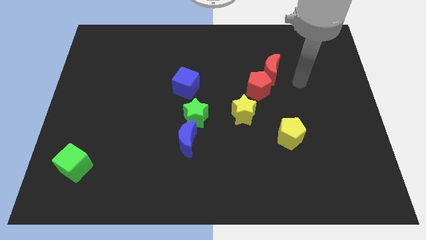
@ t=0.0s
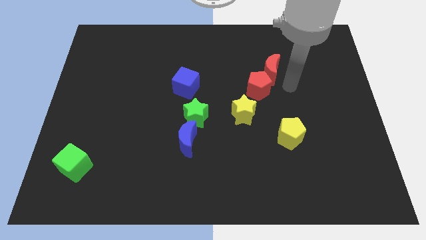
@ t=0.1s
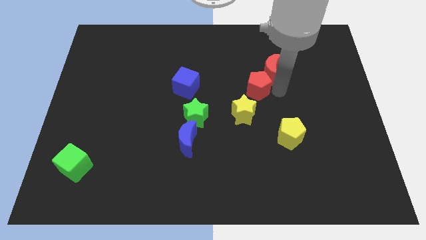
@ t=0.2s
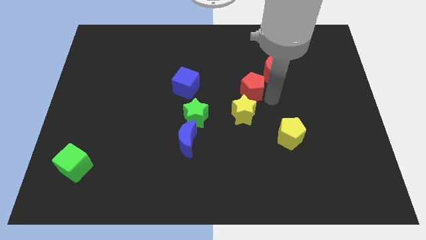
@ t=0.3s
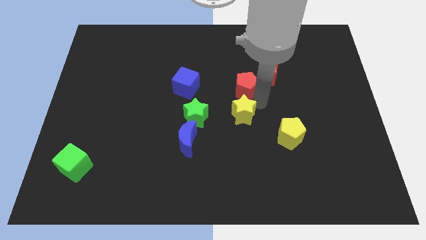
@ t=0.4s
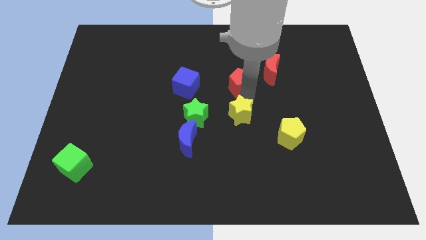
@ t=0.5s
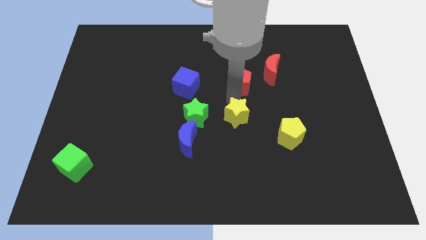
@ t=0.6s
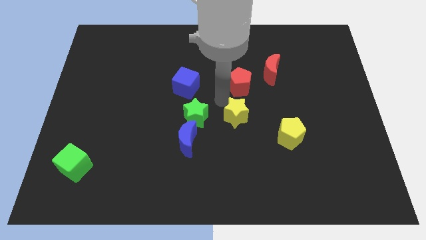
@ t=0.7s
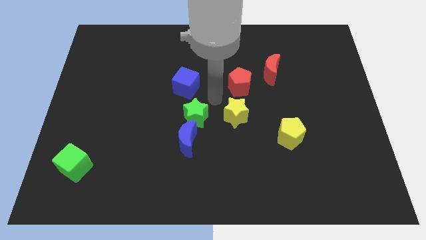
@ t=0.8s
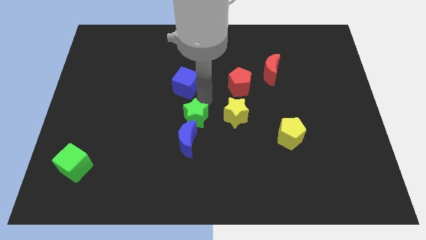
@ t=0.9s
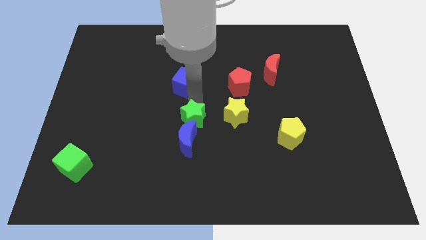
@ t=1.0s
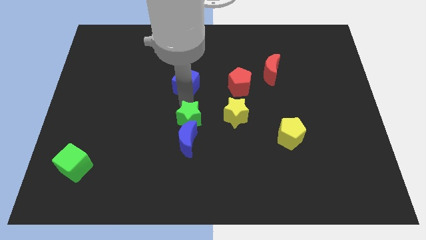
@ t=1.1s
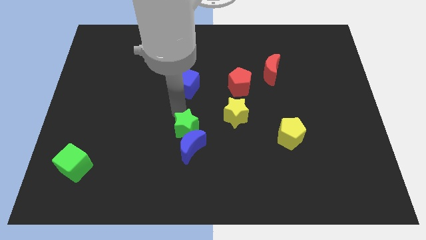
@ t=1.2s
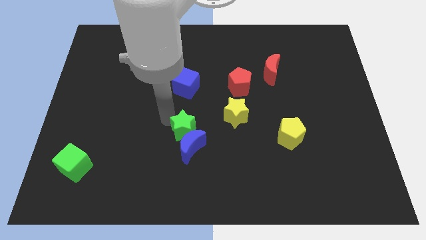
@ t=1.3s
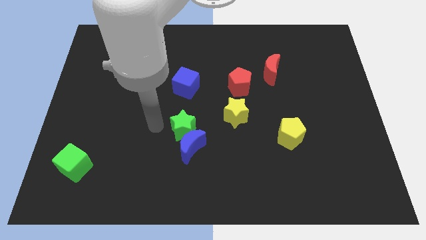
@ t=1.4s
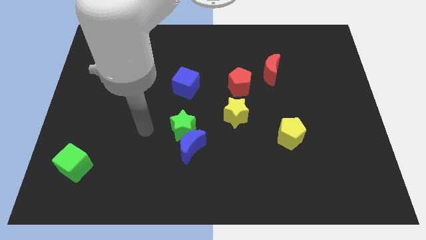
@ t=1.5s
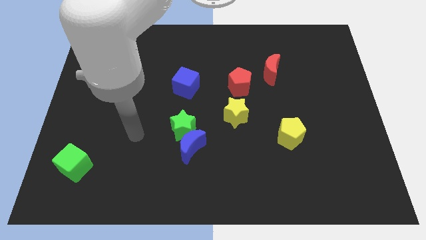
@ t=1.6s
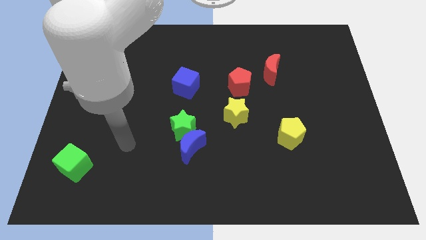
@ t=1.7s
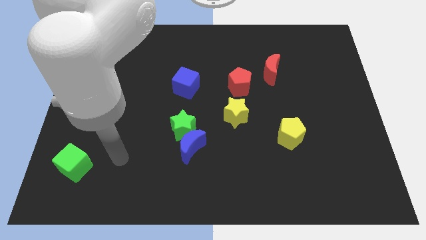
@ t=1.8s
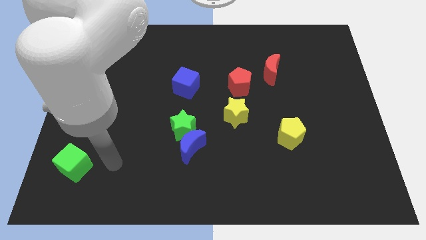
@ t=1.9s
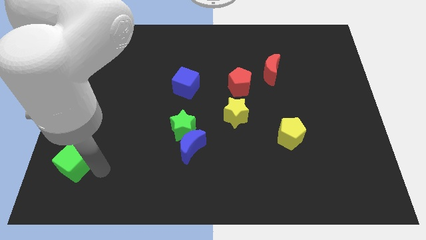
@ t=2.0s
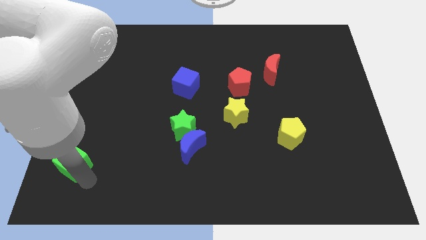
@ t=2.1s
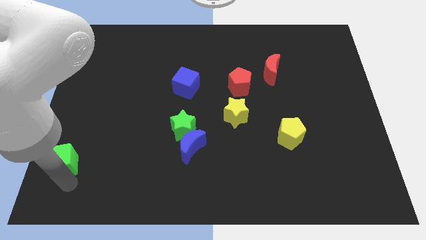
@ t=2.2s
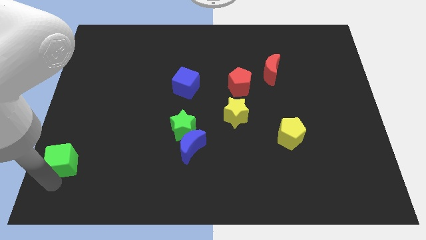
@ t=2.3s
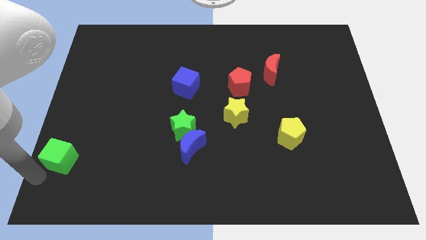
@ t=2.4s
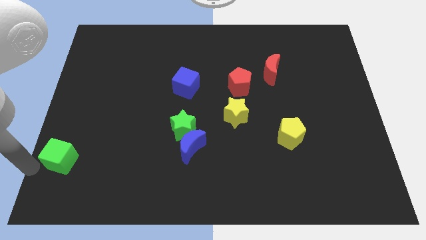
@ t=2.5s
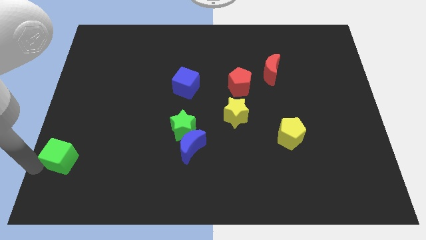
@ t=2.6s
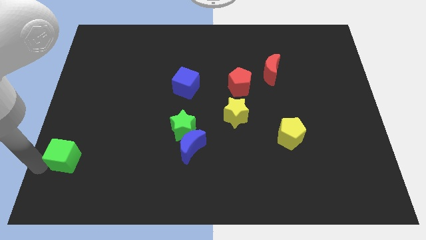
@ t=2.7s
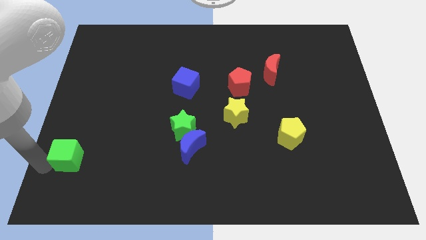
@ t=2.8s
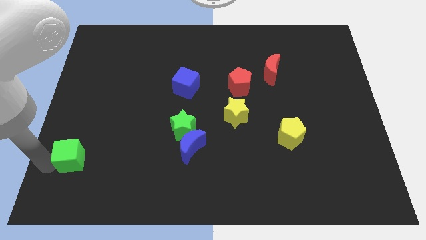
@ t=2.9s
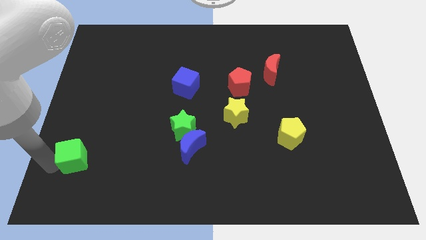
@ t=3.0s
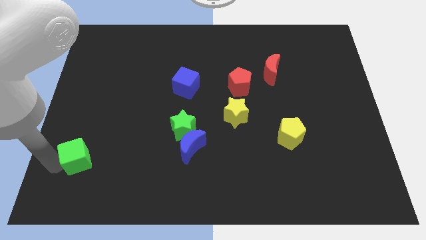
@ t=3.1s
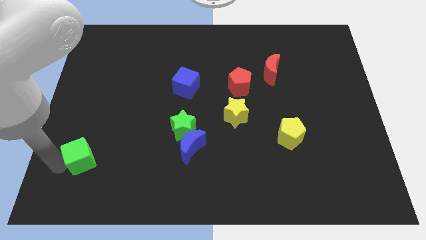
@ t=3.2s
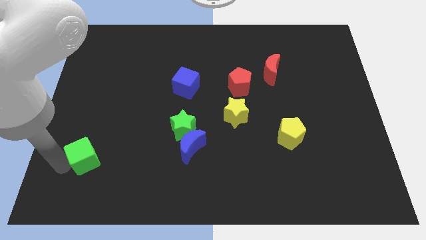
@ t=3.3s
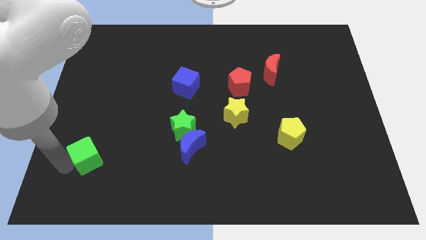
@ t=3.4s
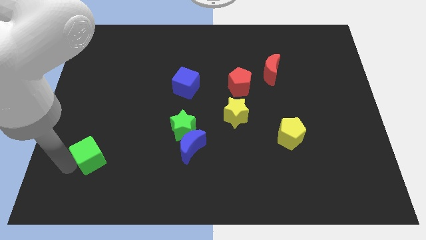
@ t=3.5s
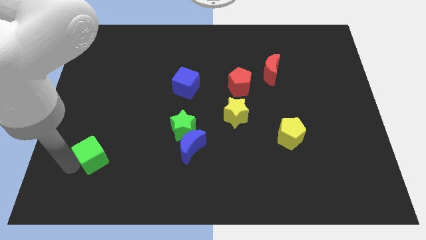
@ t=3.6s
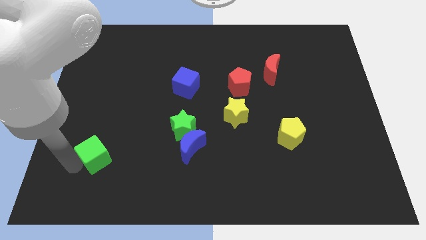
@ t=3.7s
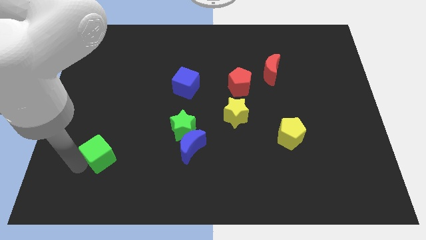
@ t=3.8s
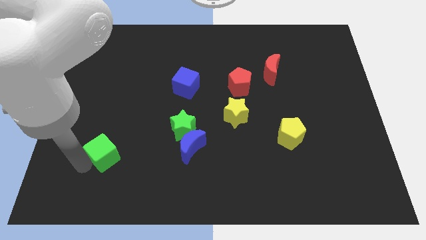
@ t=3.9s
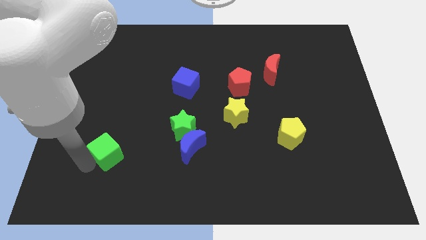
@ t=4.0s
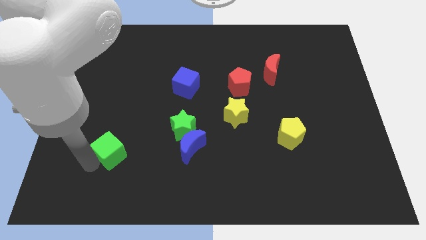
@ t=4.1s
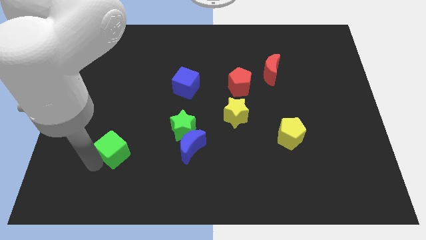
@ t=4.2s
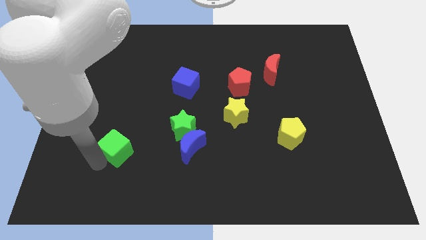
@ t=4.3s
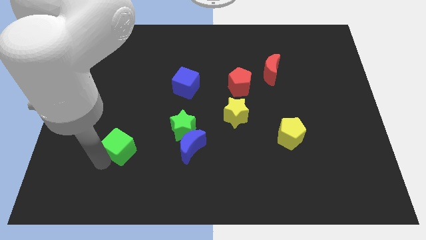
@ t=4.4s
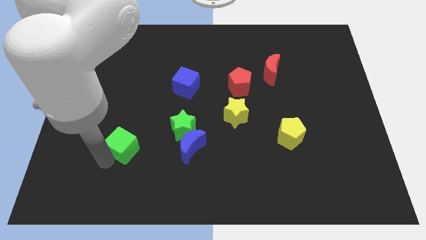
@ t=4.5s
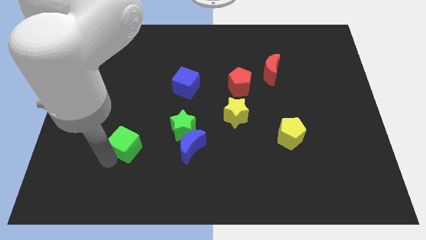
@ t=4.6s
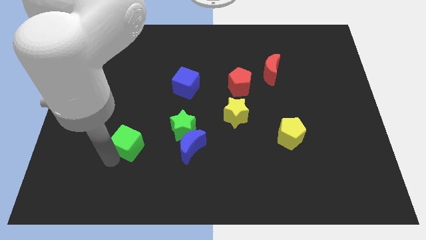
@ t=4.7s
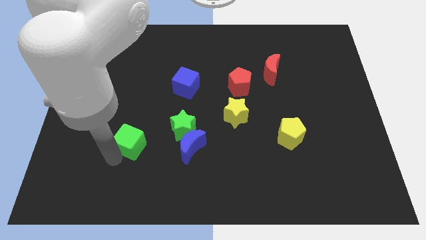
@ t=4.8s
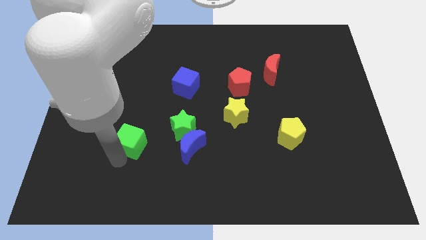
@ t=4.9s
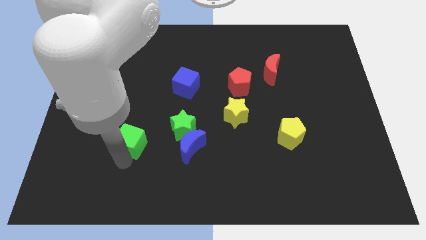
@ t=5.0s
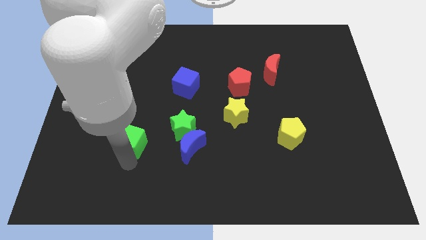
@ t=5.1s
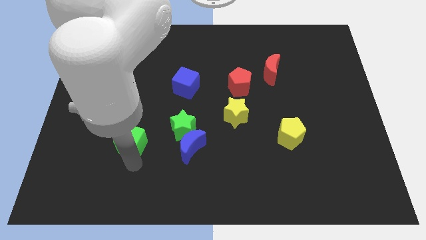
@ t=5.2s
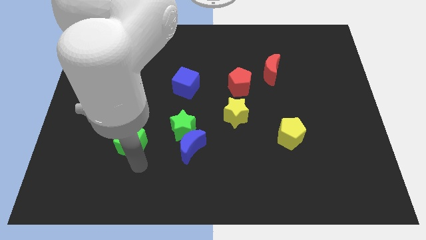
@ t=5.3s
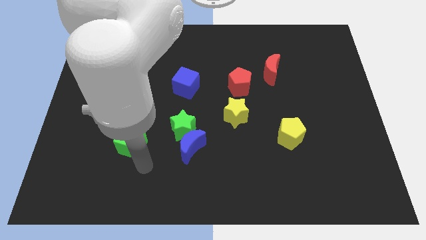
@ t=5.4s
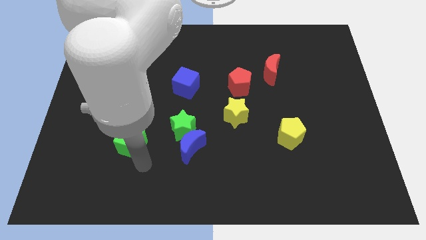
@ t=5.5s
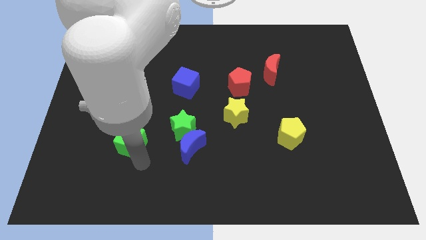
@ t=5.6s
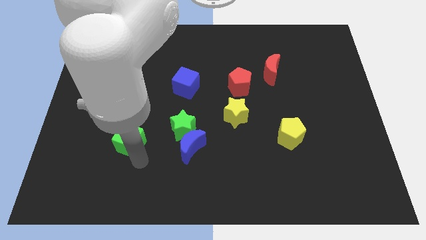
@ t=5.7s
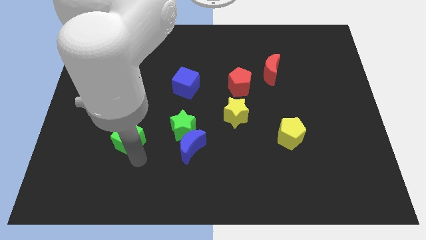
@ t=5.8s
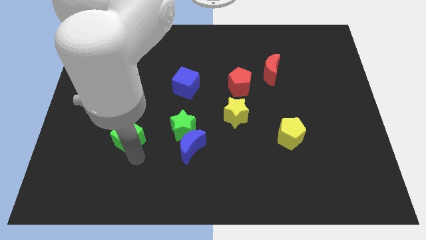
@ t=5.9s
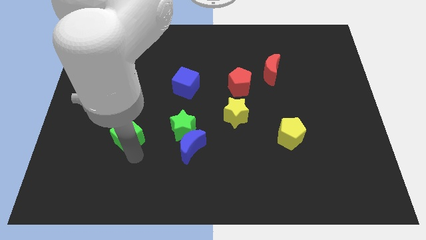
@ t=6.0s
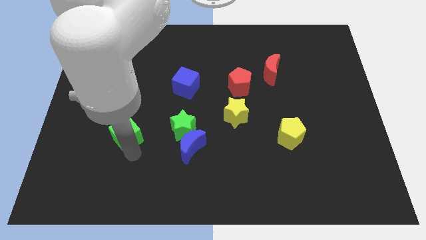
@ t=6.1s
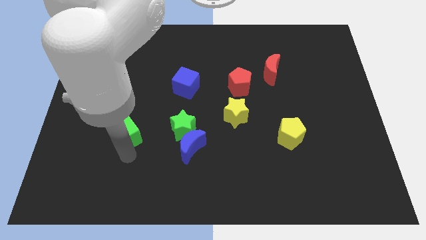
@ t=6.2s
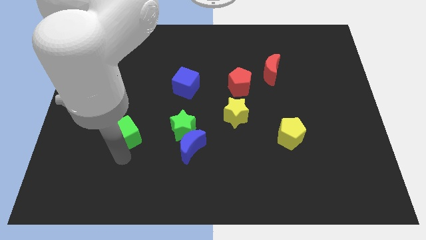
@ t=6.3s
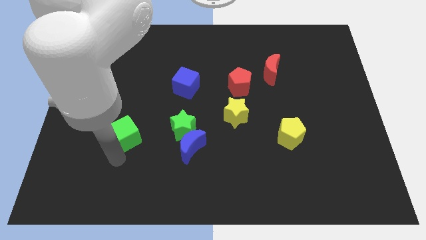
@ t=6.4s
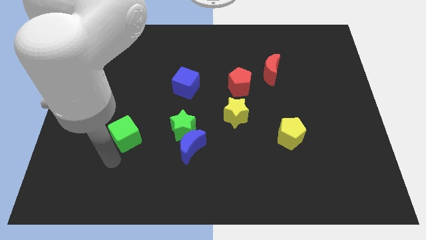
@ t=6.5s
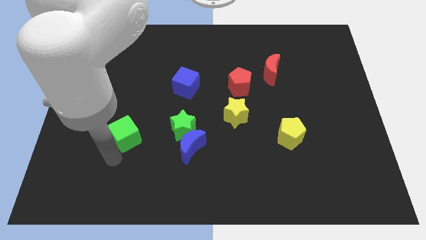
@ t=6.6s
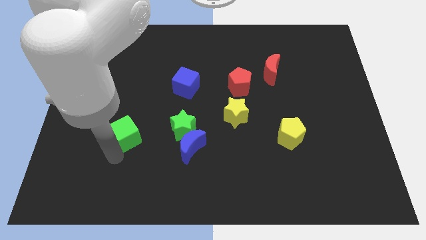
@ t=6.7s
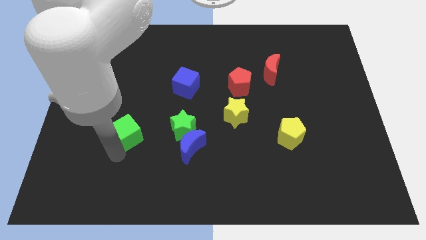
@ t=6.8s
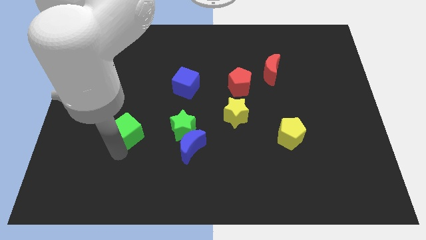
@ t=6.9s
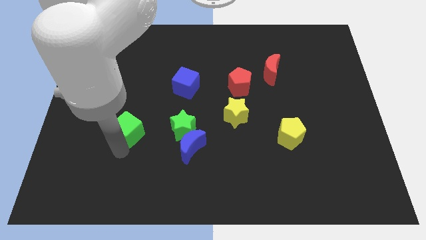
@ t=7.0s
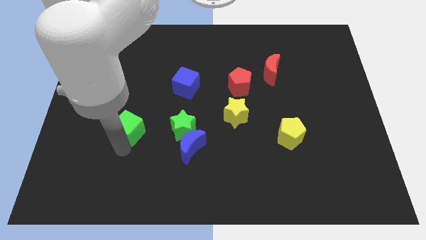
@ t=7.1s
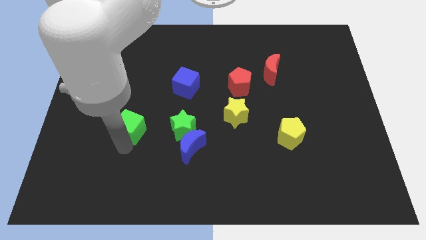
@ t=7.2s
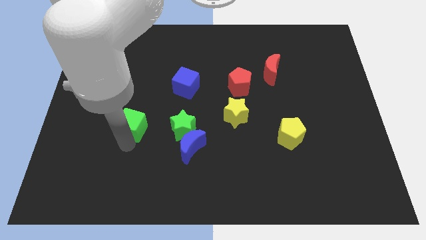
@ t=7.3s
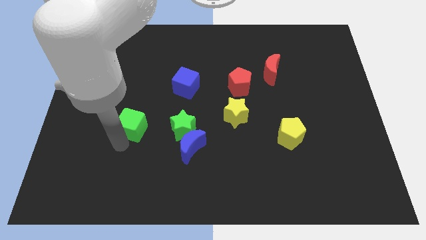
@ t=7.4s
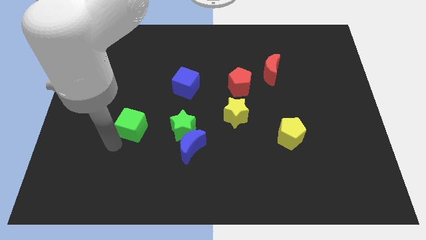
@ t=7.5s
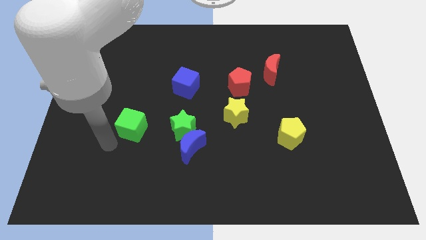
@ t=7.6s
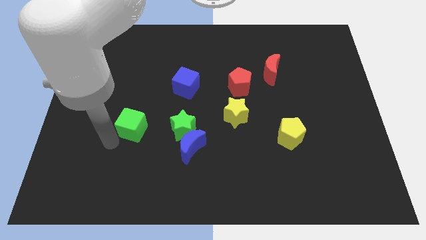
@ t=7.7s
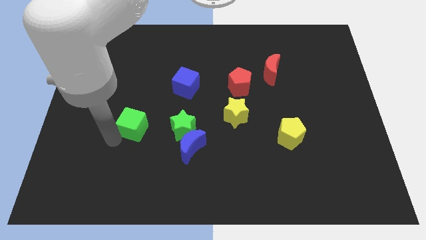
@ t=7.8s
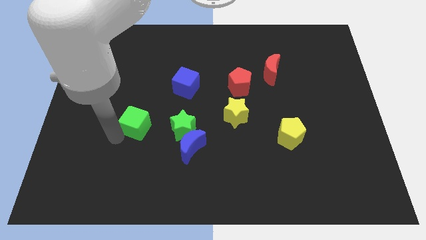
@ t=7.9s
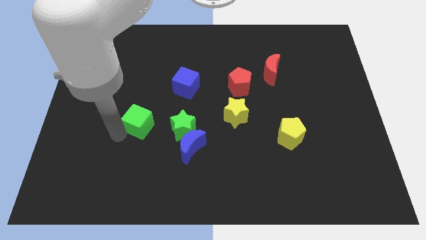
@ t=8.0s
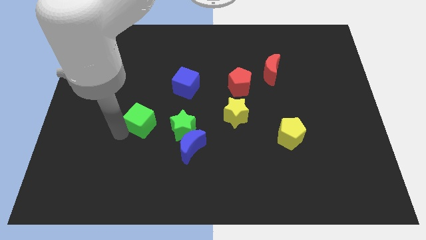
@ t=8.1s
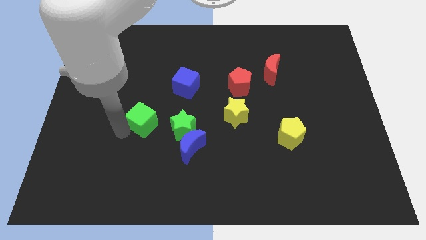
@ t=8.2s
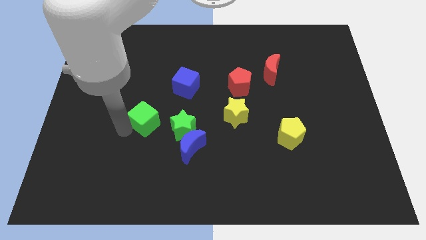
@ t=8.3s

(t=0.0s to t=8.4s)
push the green cube diagonally up and to the left of the green star
